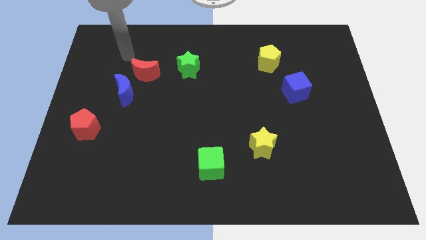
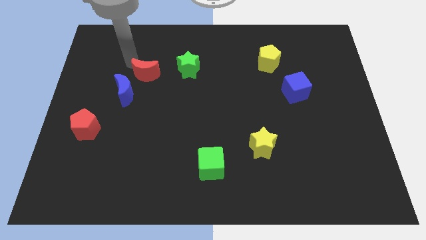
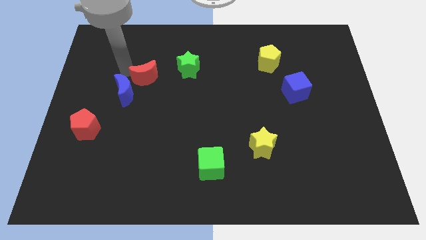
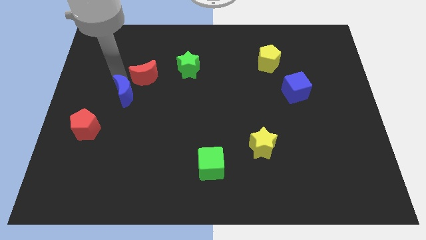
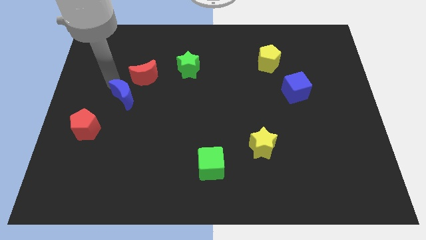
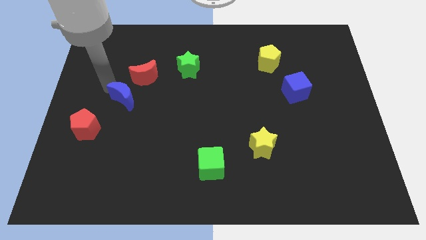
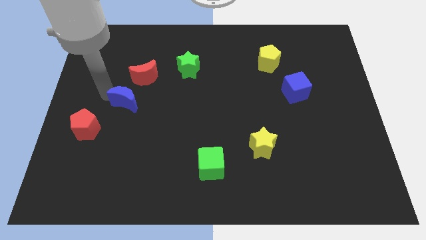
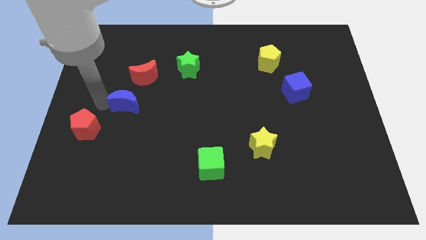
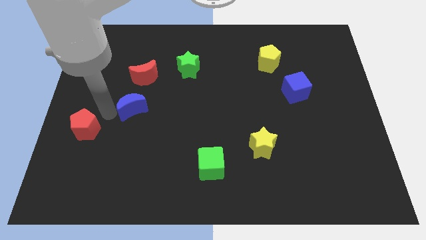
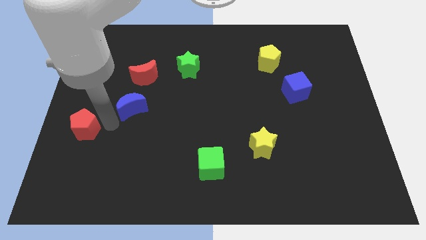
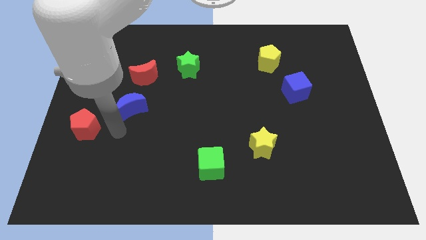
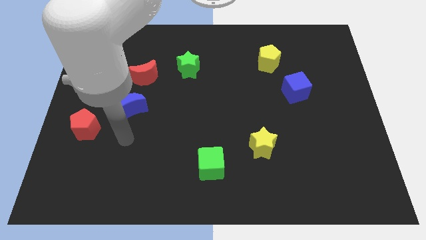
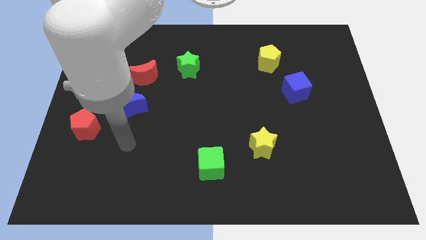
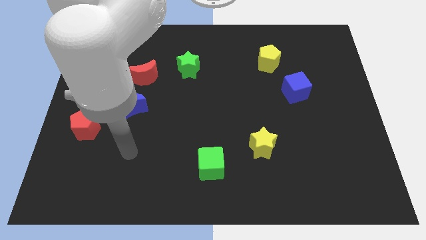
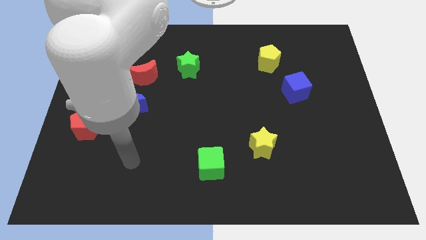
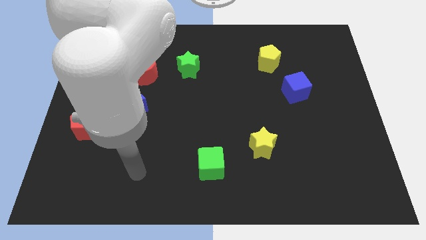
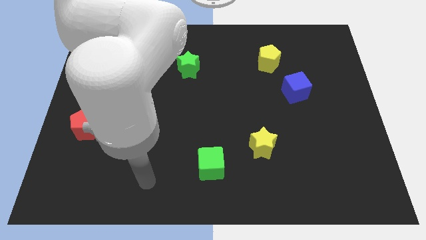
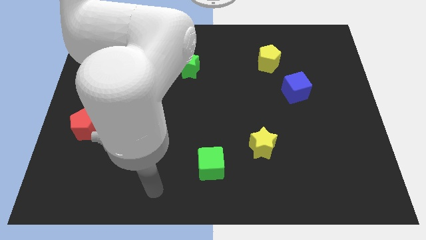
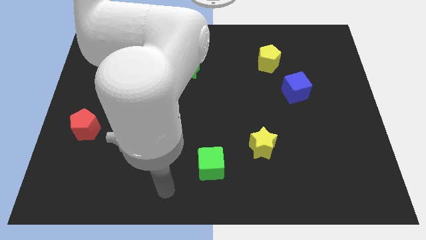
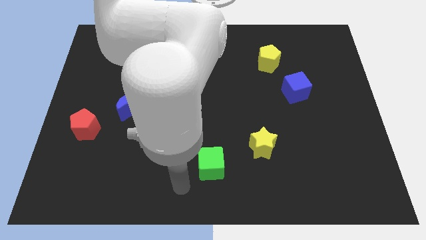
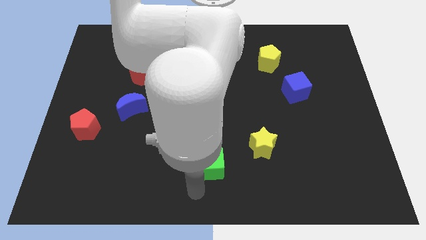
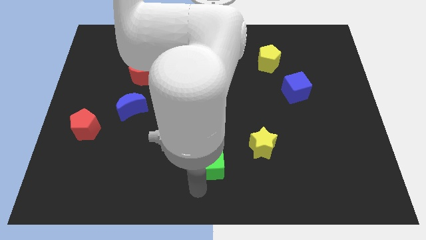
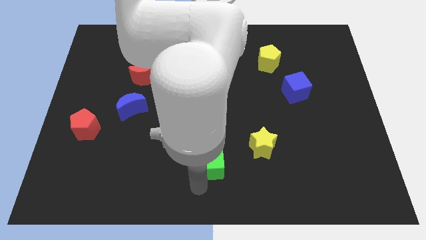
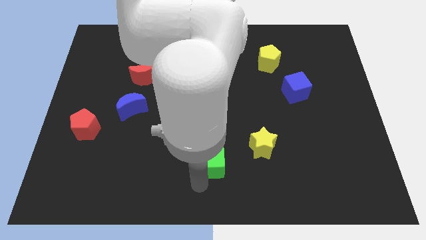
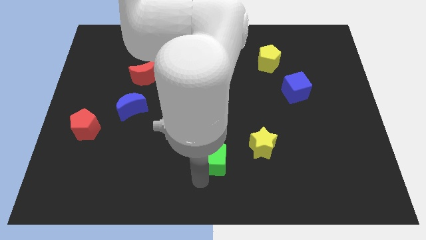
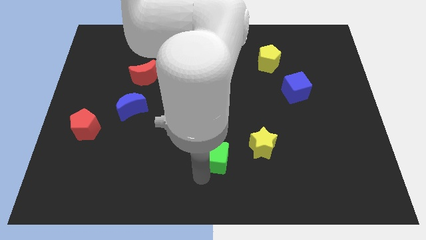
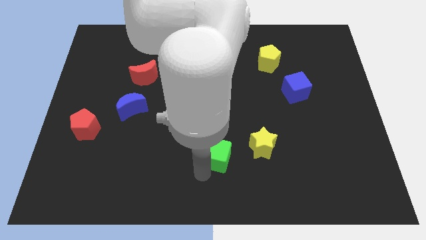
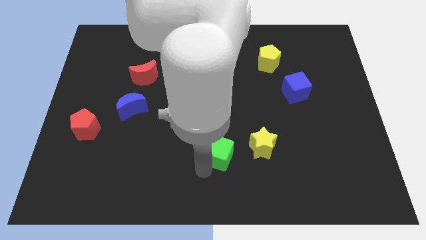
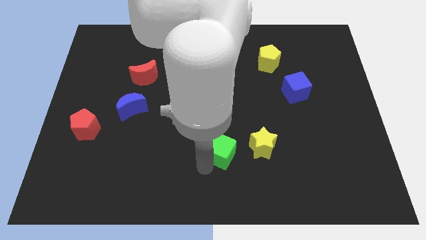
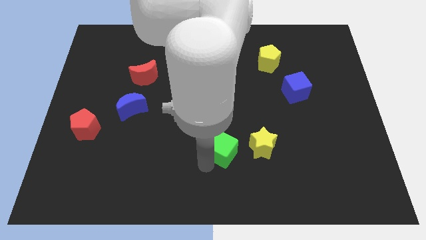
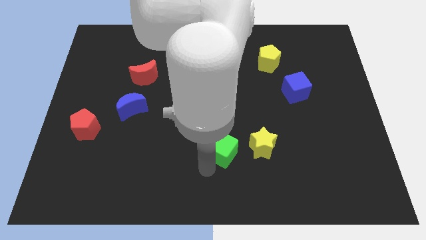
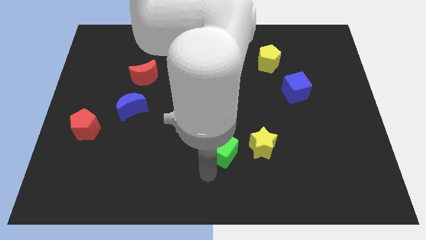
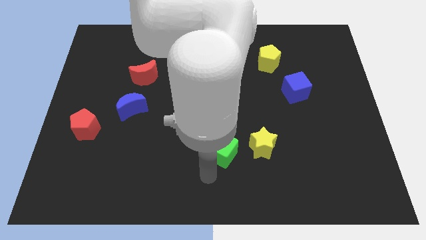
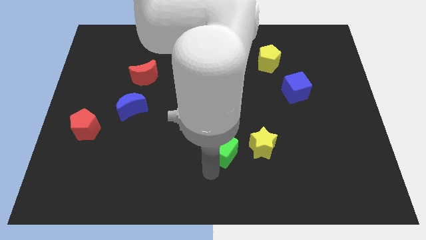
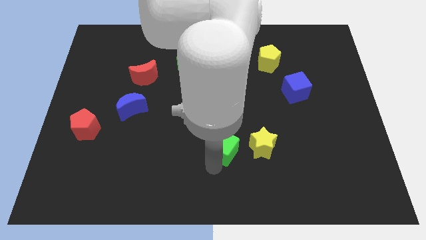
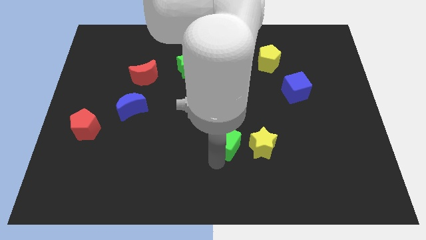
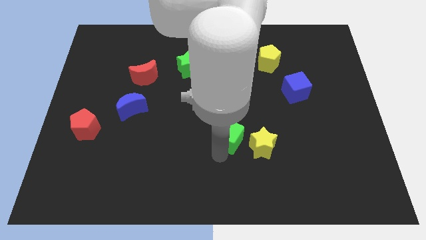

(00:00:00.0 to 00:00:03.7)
slide the green cube slightly upwards and then to the right

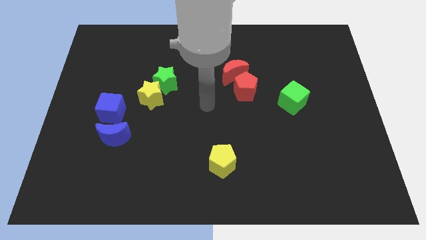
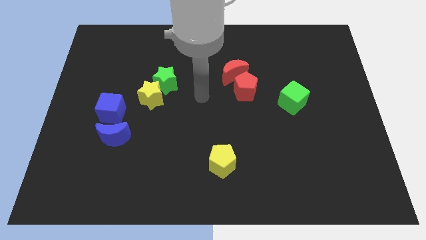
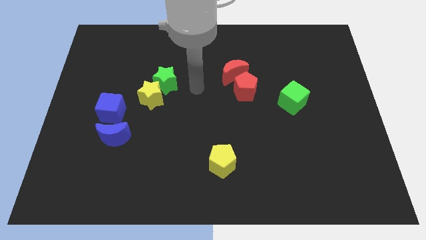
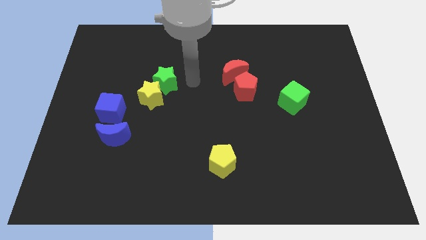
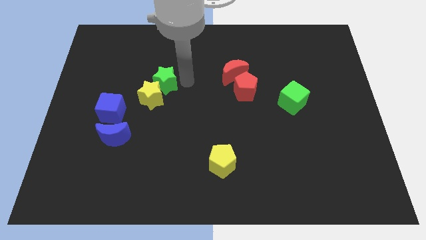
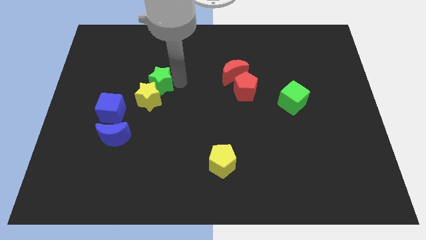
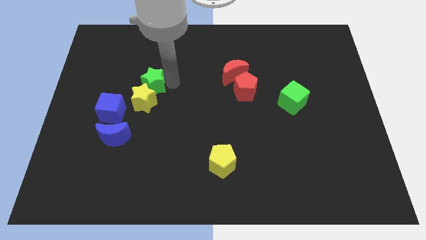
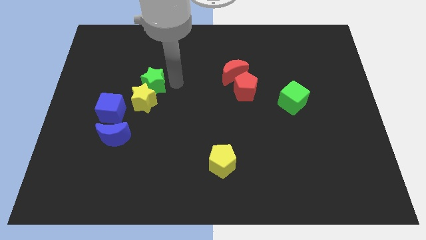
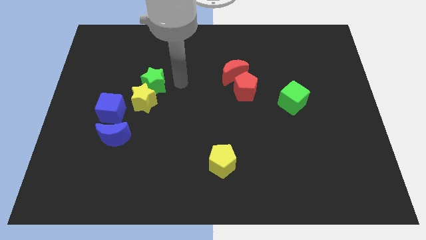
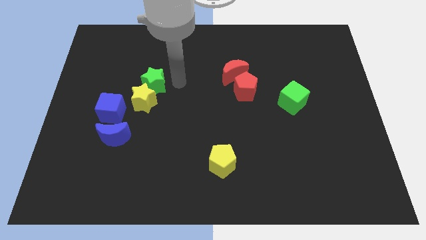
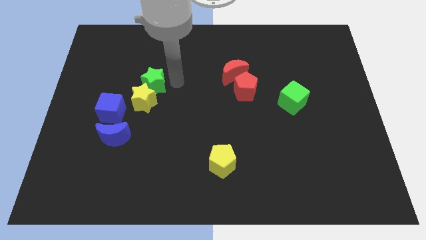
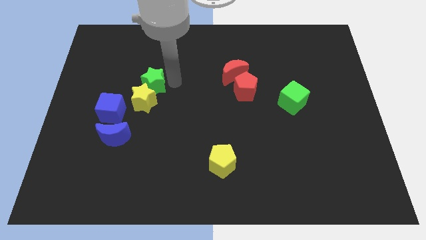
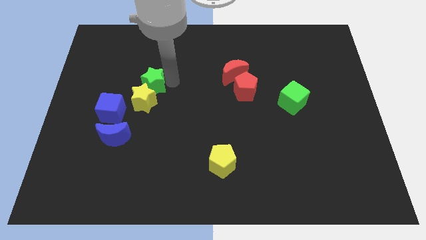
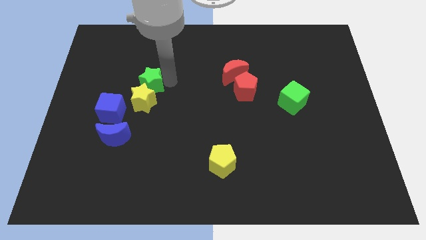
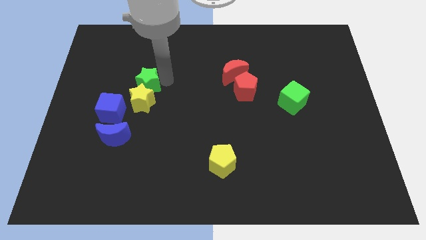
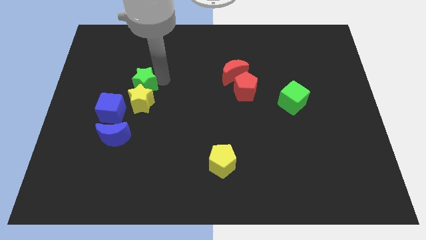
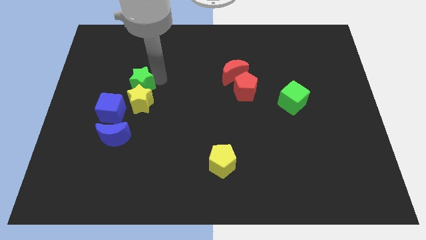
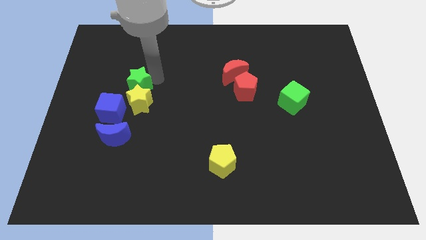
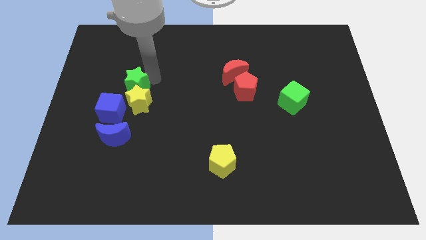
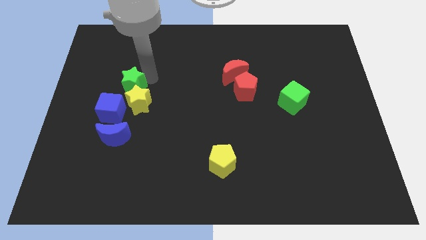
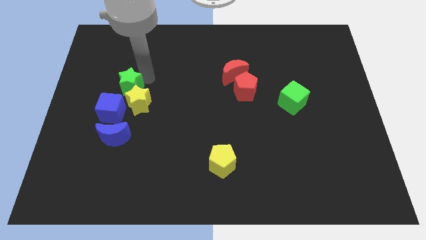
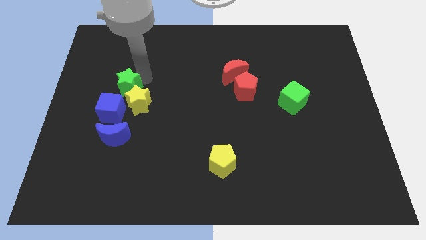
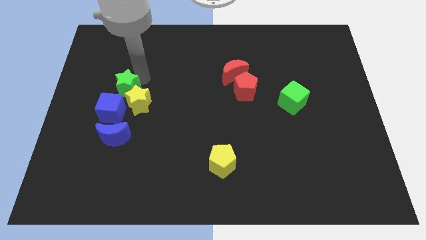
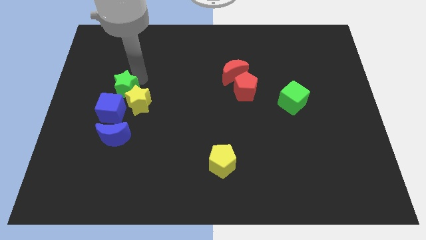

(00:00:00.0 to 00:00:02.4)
move the green star a little bit downwards and left diagonally

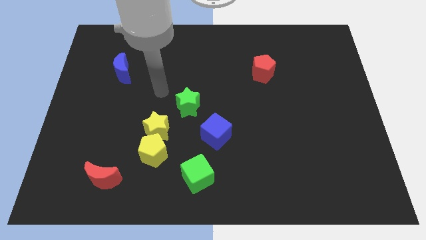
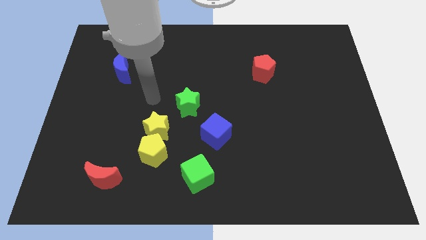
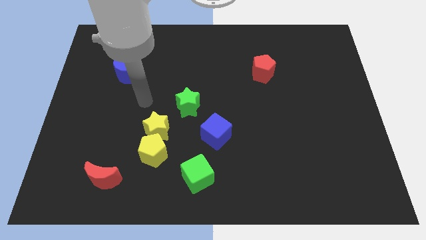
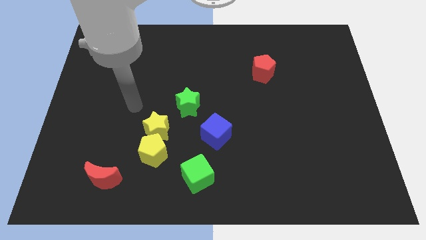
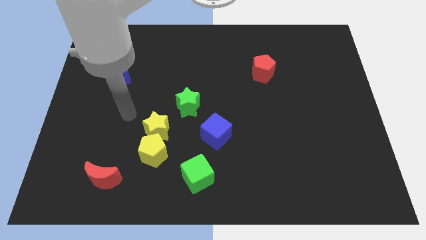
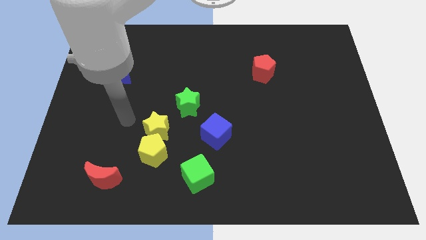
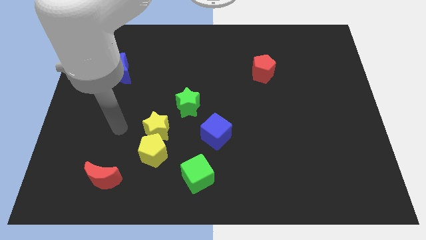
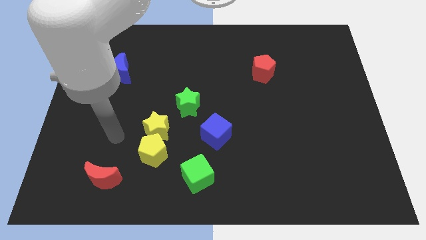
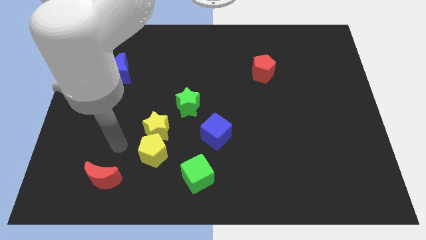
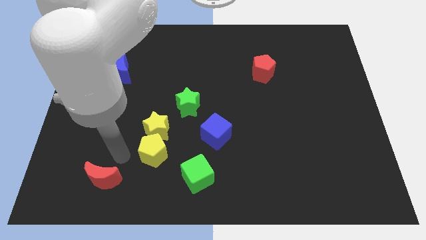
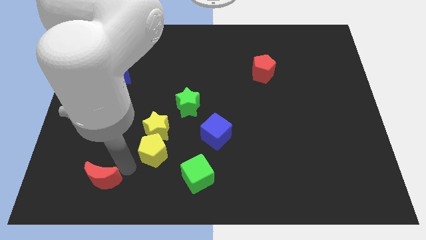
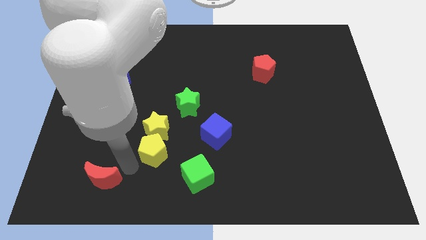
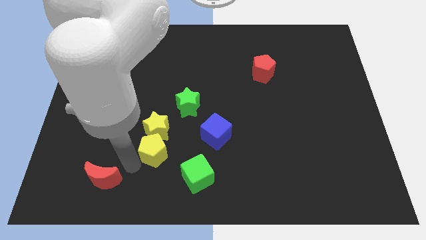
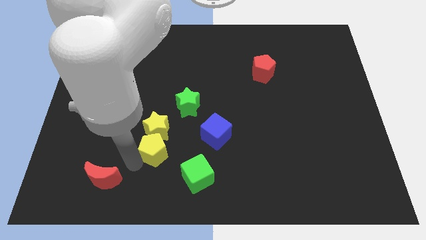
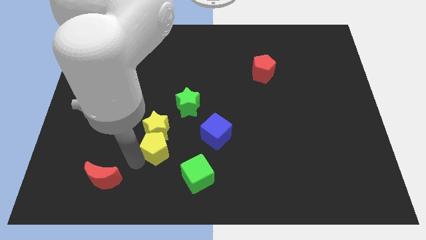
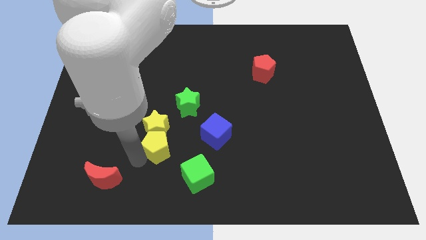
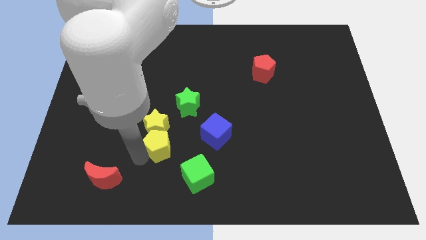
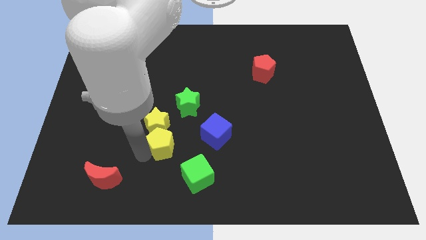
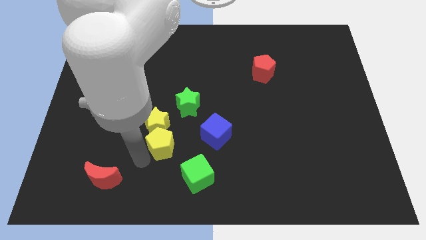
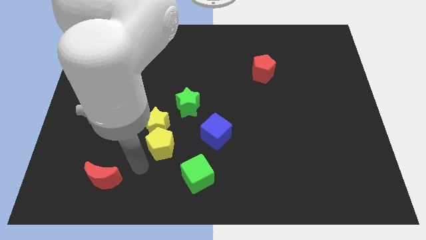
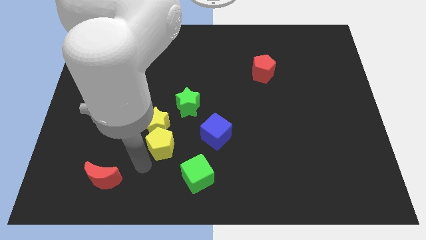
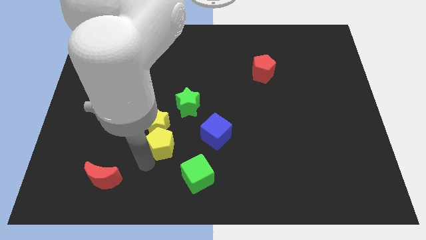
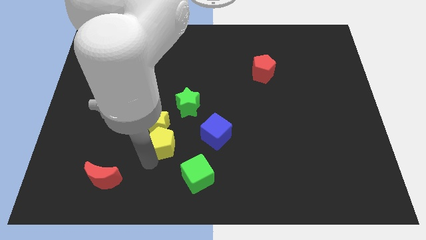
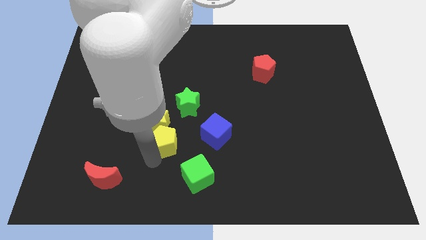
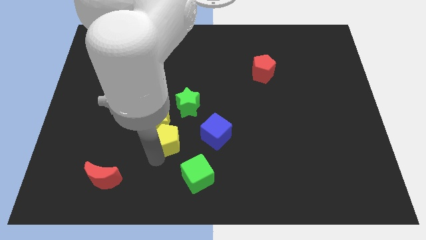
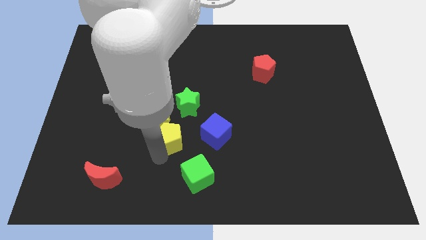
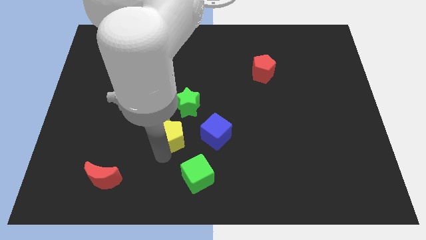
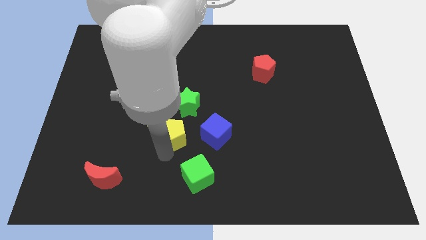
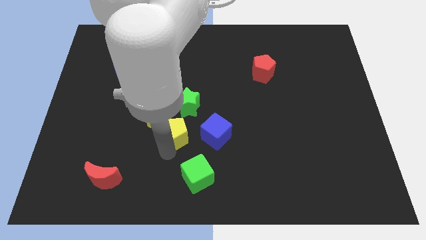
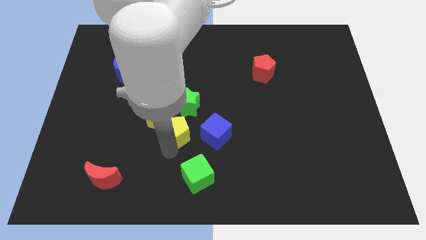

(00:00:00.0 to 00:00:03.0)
slightly move the yellow pentagon upwards and right diagonally
